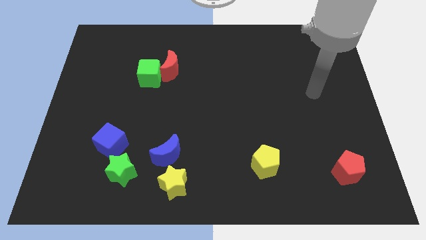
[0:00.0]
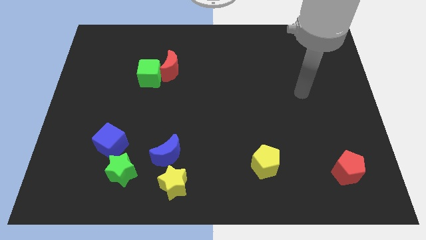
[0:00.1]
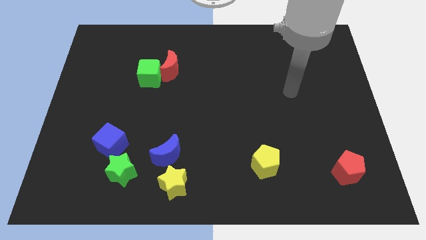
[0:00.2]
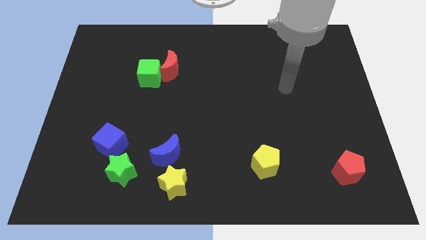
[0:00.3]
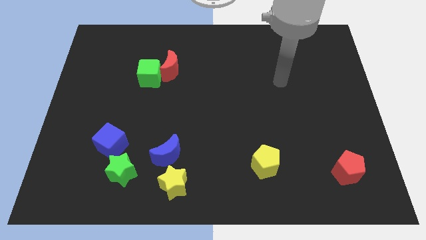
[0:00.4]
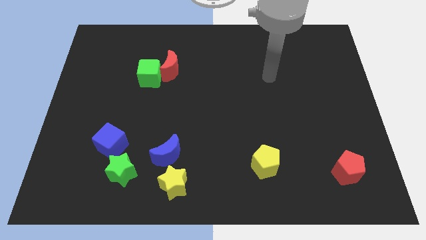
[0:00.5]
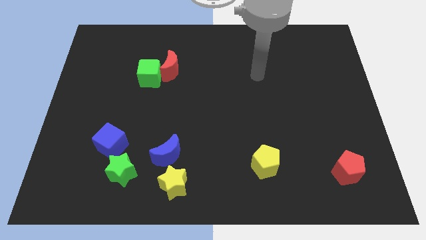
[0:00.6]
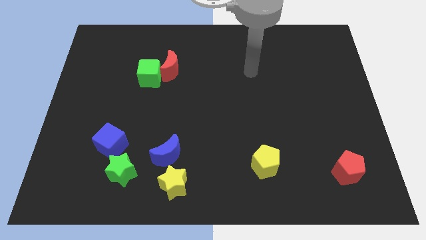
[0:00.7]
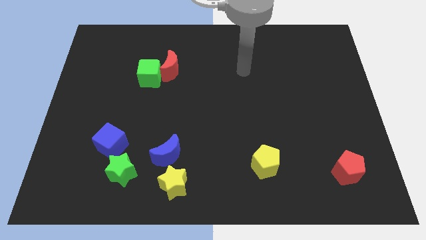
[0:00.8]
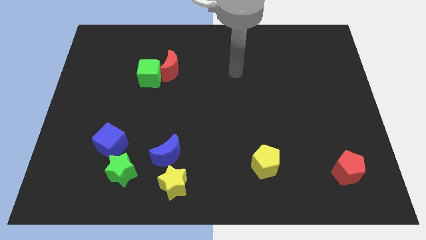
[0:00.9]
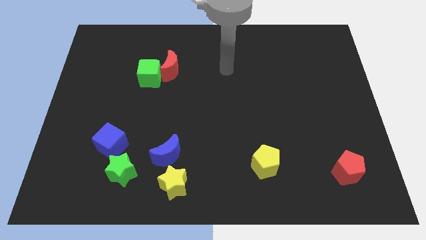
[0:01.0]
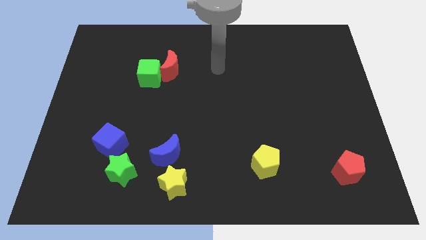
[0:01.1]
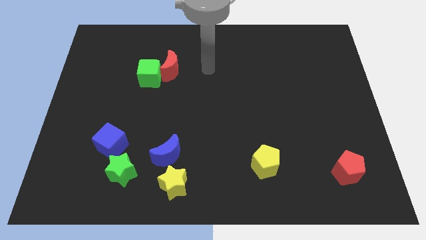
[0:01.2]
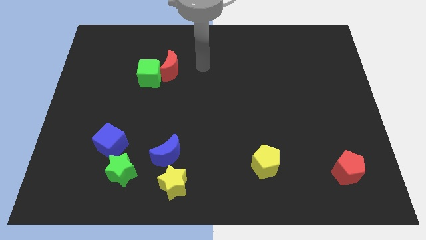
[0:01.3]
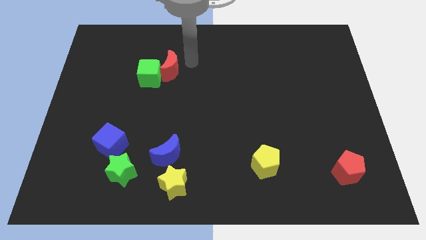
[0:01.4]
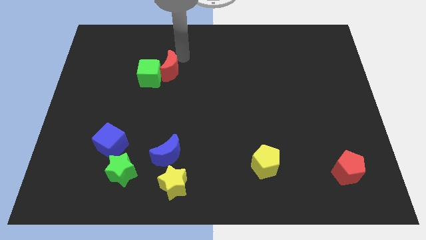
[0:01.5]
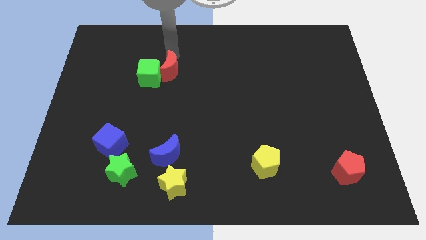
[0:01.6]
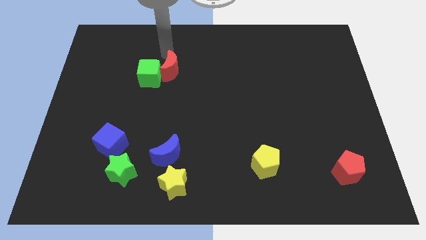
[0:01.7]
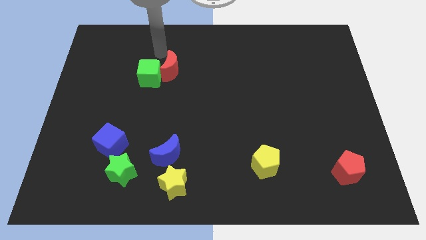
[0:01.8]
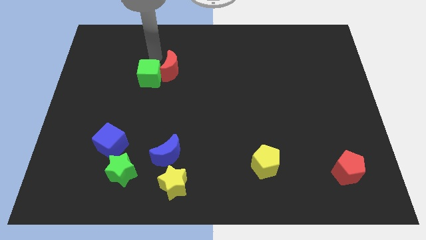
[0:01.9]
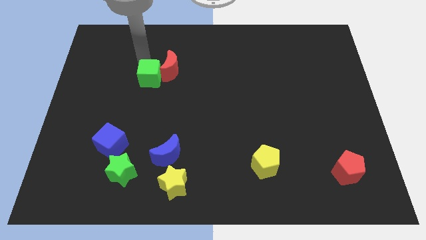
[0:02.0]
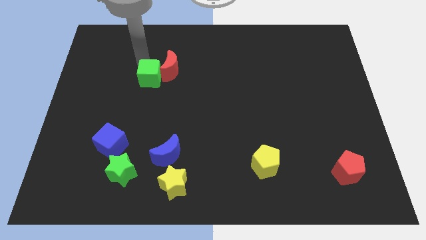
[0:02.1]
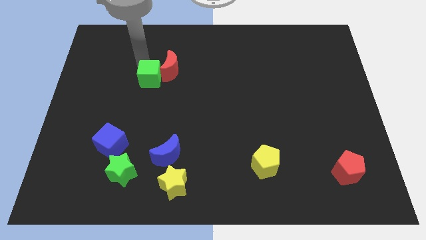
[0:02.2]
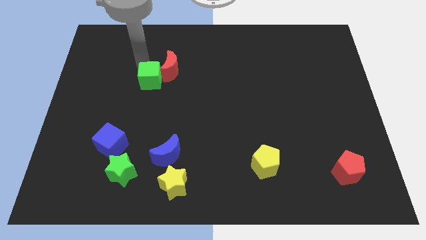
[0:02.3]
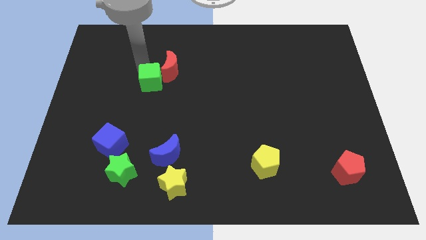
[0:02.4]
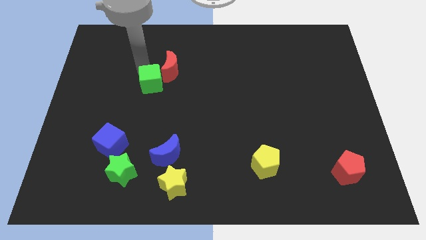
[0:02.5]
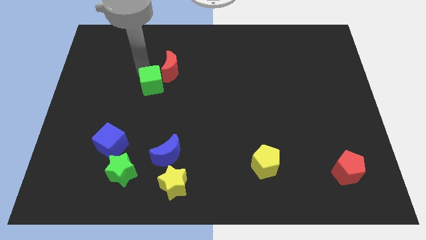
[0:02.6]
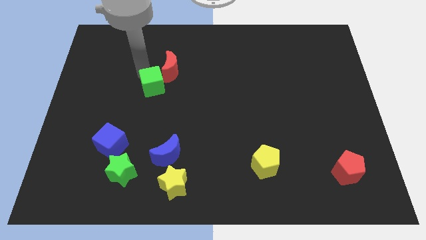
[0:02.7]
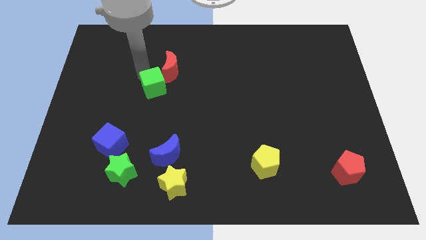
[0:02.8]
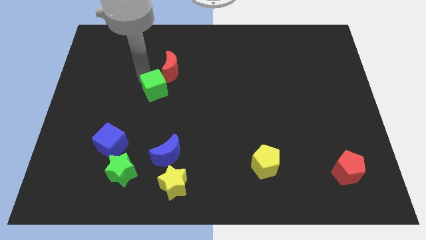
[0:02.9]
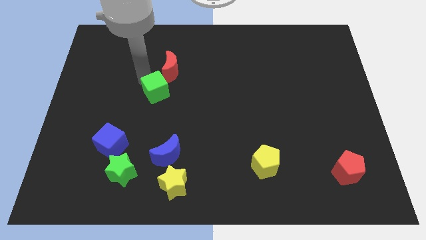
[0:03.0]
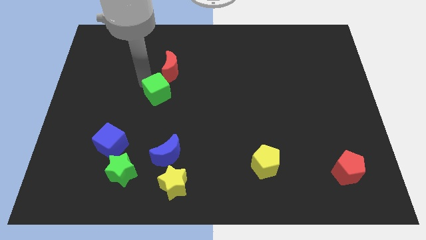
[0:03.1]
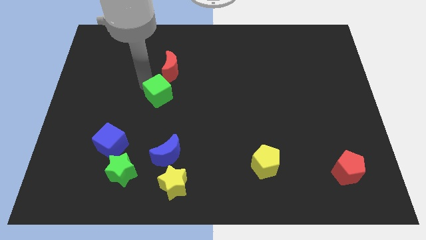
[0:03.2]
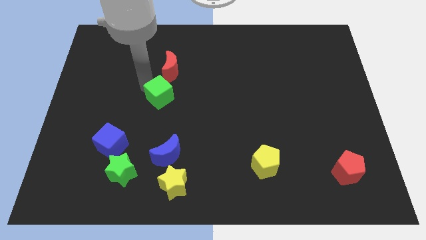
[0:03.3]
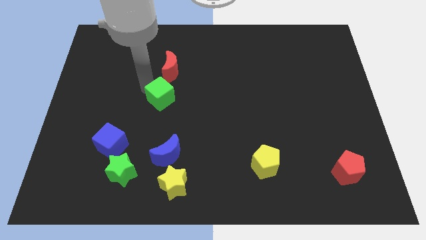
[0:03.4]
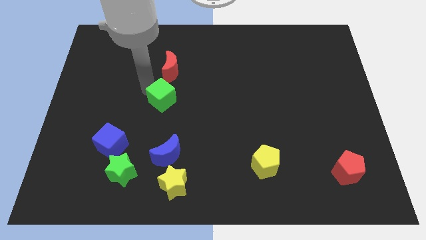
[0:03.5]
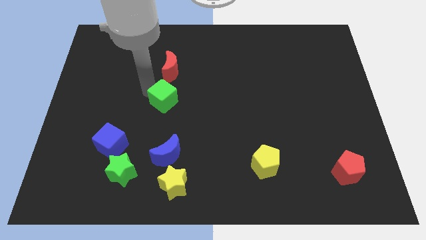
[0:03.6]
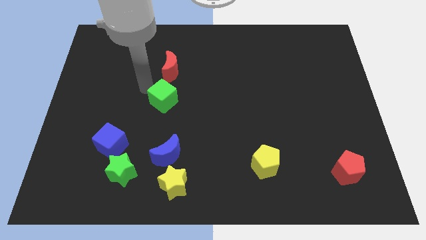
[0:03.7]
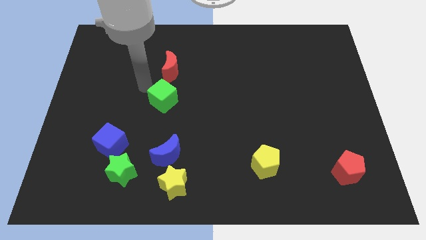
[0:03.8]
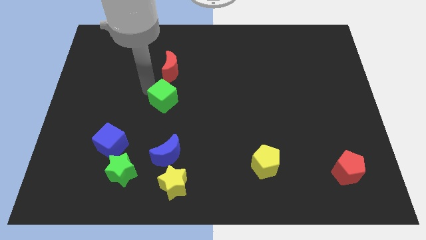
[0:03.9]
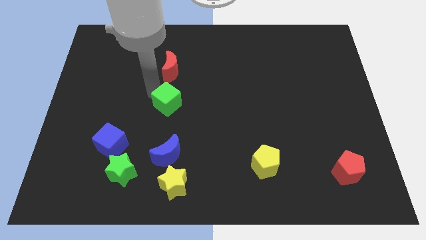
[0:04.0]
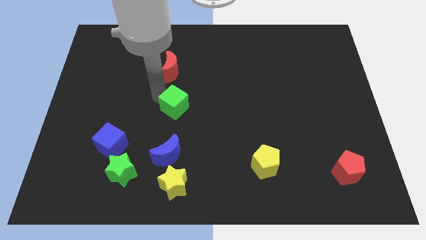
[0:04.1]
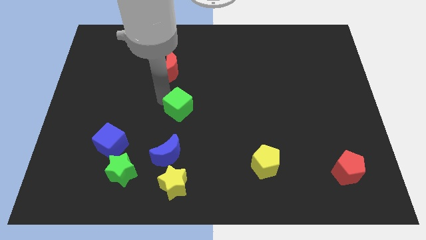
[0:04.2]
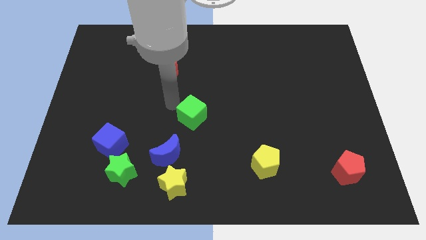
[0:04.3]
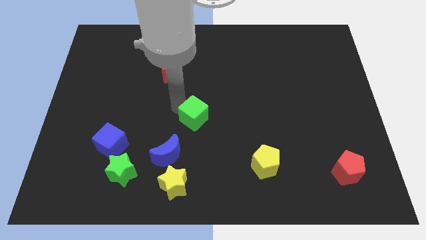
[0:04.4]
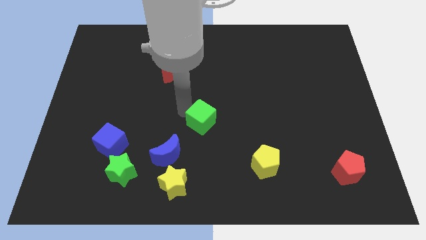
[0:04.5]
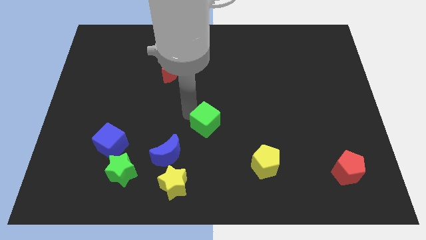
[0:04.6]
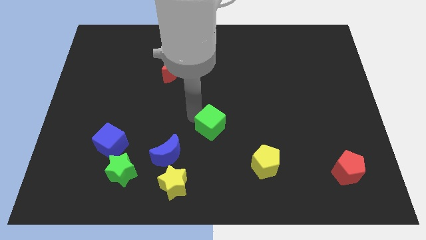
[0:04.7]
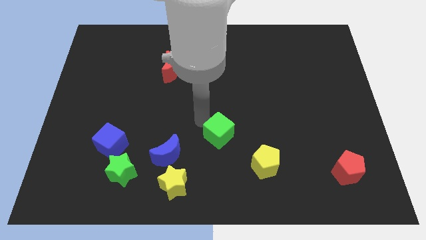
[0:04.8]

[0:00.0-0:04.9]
slide the green cube to the top left side of the yellow pentagon

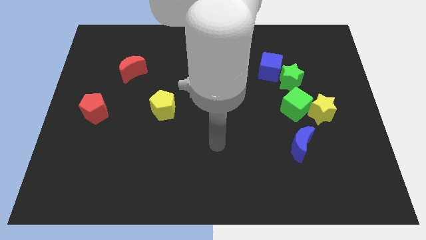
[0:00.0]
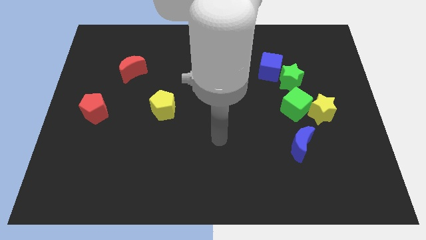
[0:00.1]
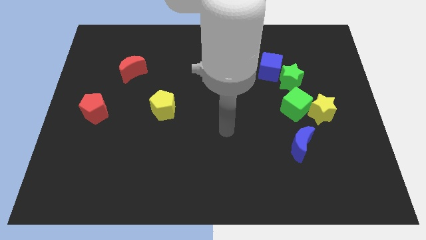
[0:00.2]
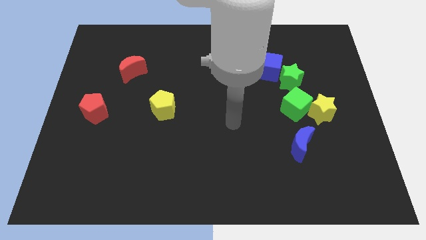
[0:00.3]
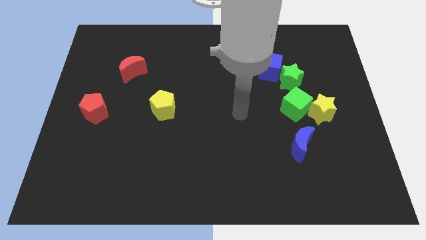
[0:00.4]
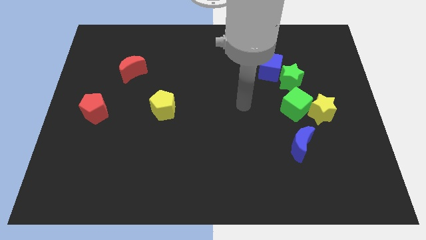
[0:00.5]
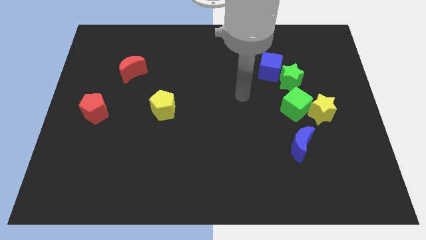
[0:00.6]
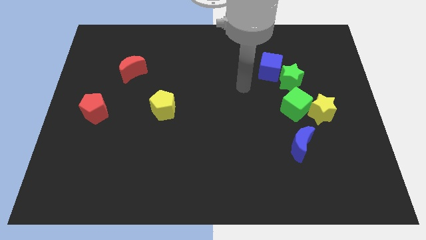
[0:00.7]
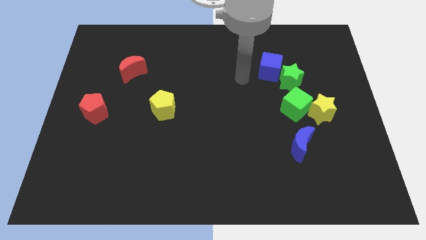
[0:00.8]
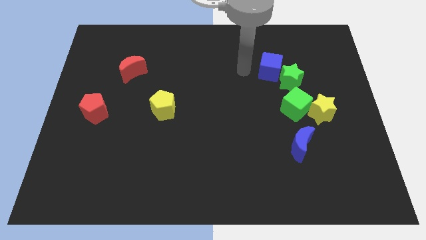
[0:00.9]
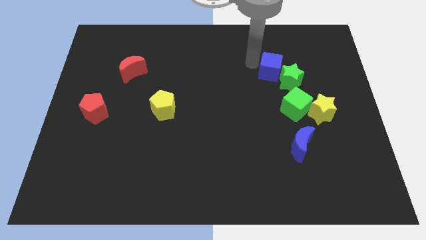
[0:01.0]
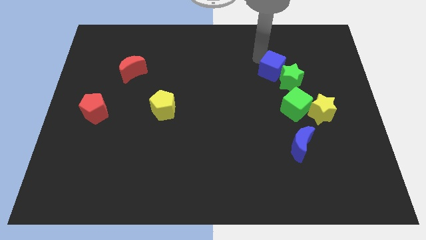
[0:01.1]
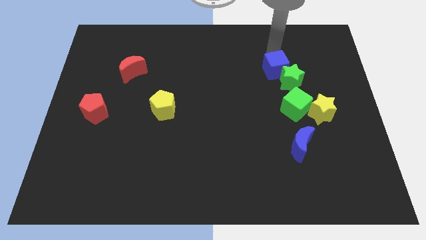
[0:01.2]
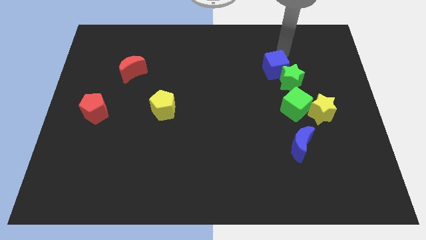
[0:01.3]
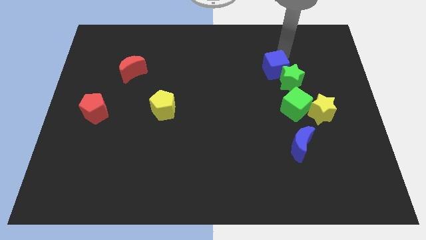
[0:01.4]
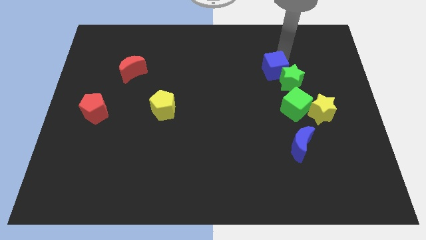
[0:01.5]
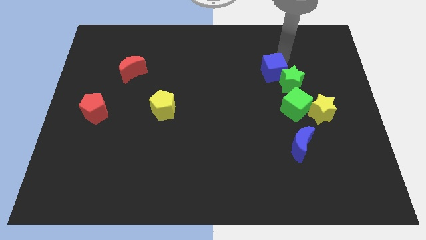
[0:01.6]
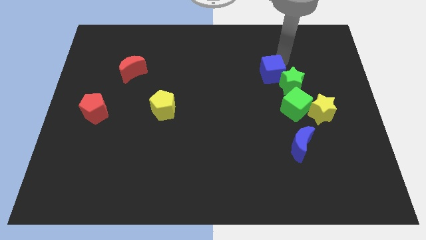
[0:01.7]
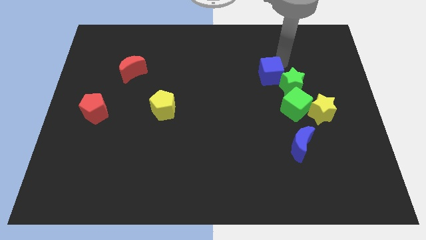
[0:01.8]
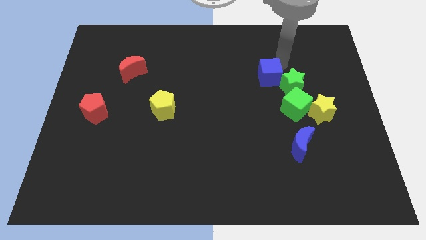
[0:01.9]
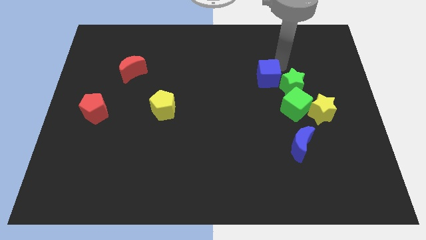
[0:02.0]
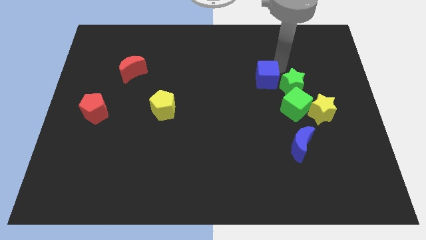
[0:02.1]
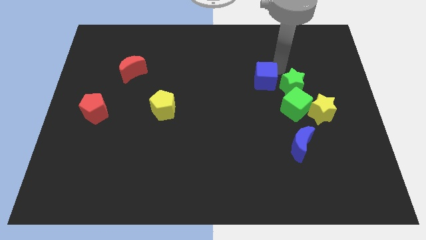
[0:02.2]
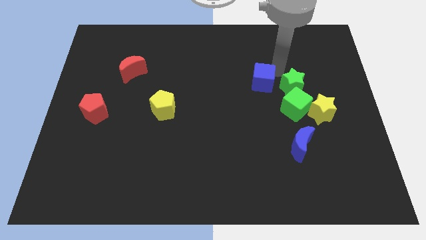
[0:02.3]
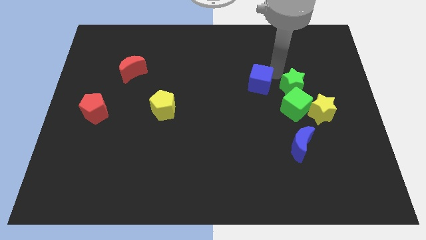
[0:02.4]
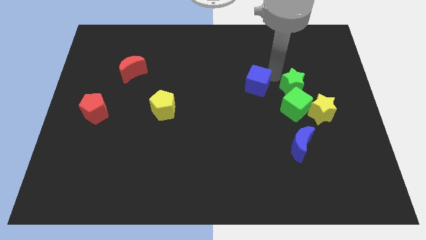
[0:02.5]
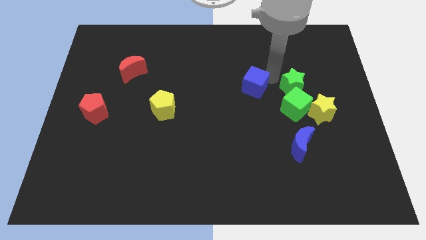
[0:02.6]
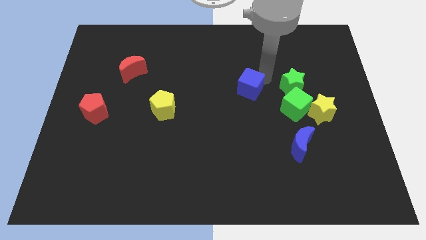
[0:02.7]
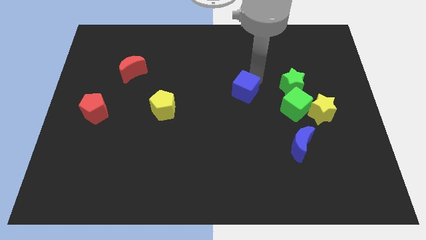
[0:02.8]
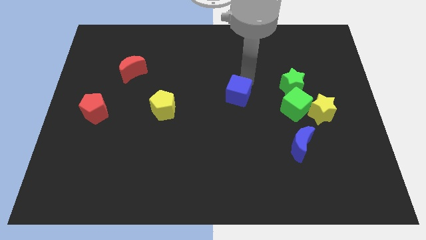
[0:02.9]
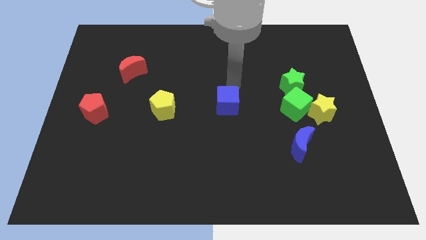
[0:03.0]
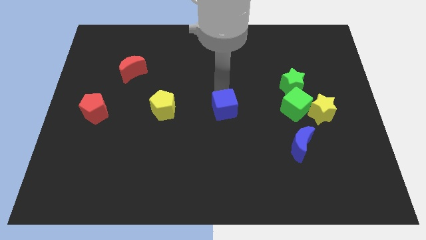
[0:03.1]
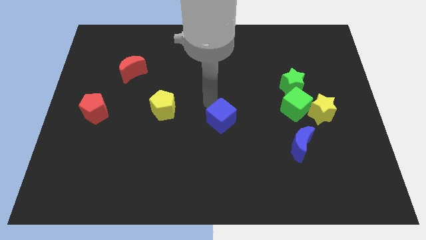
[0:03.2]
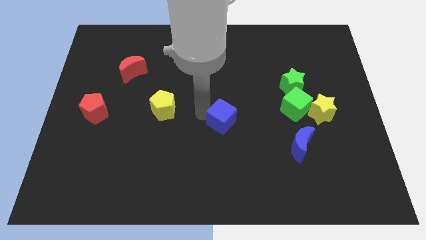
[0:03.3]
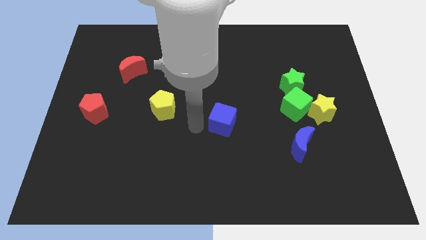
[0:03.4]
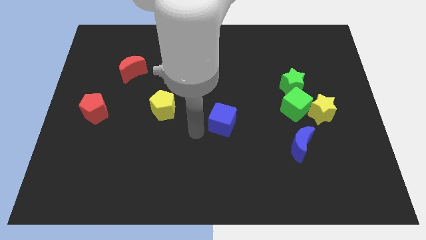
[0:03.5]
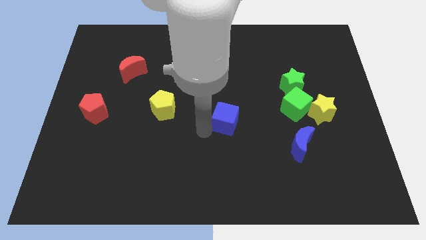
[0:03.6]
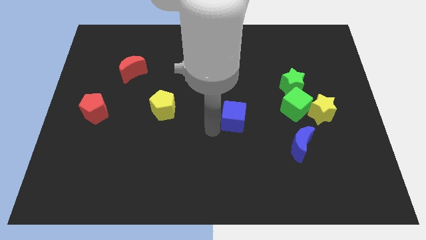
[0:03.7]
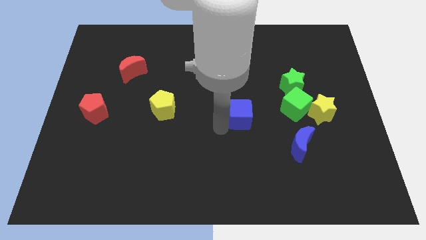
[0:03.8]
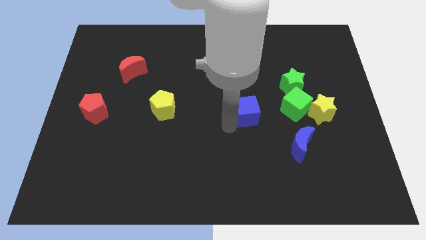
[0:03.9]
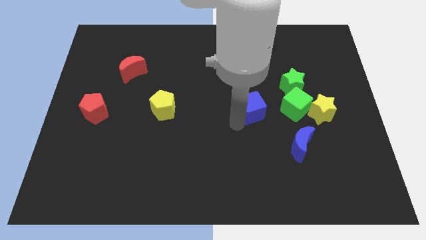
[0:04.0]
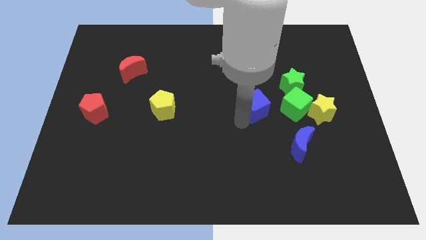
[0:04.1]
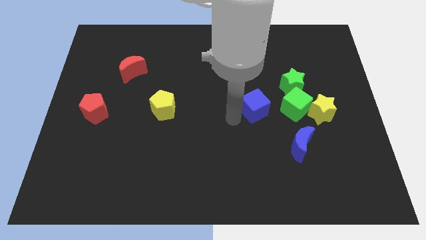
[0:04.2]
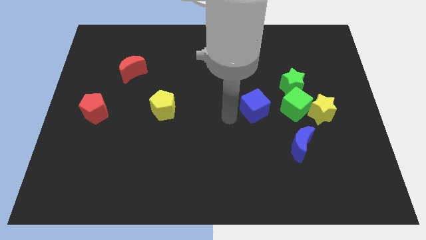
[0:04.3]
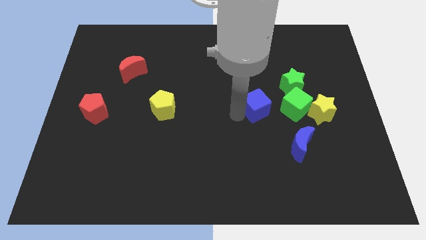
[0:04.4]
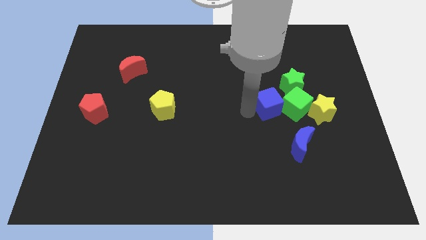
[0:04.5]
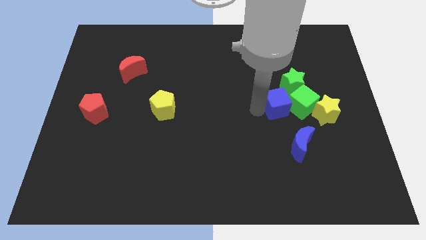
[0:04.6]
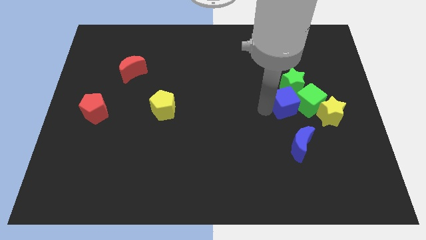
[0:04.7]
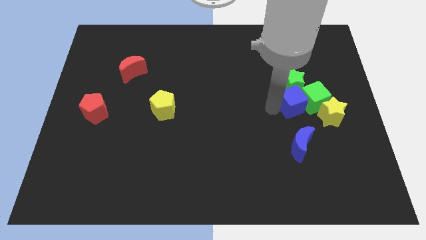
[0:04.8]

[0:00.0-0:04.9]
push the blue cube diagonally up and to the left of the yellow star
